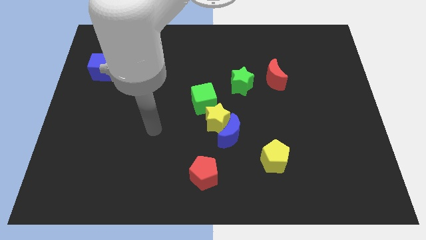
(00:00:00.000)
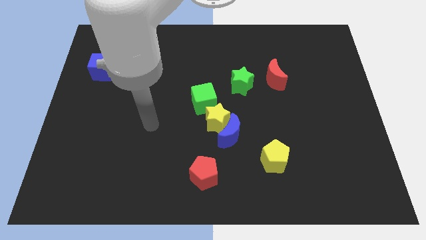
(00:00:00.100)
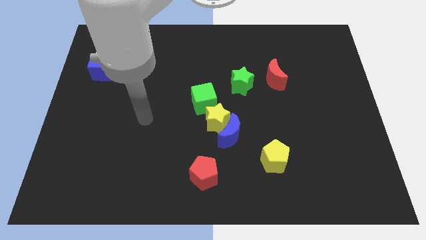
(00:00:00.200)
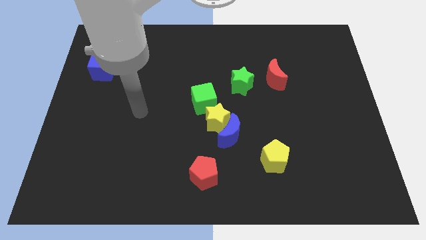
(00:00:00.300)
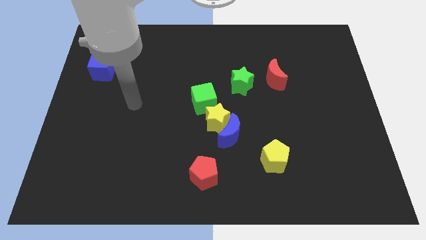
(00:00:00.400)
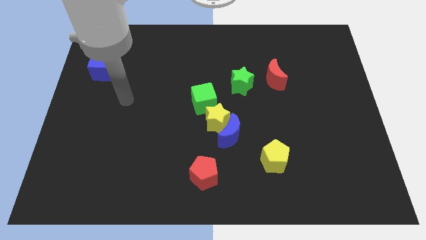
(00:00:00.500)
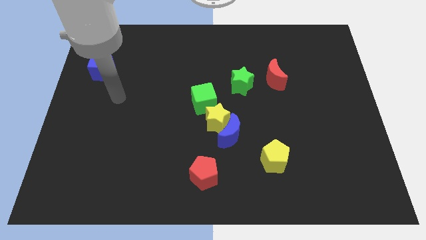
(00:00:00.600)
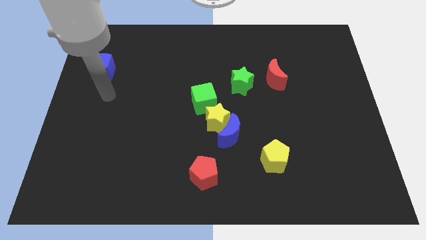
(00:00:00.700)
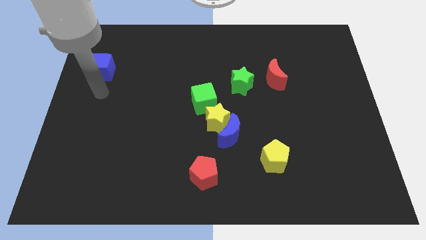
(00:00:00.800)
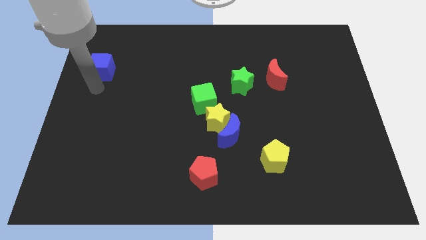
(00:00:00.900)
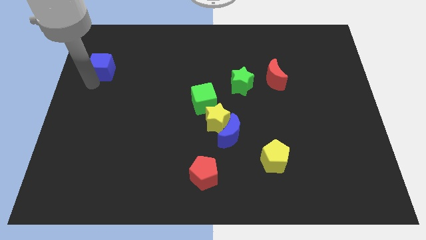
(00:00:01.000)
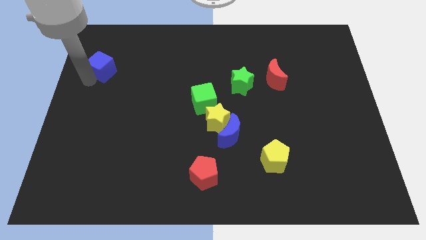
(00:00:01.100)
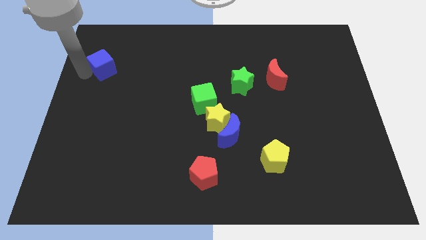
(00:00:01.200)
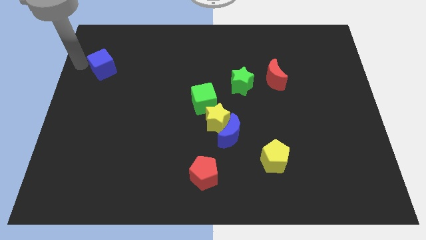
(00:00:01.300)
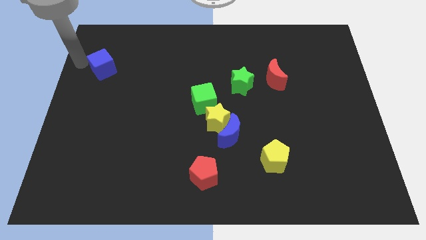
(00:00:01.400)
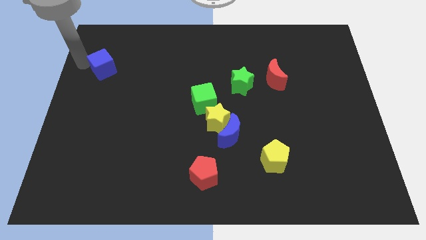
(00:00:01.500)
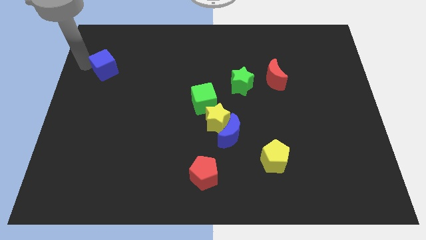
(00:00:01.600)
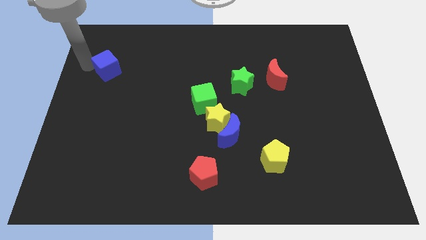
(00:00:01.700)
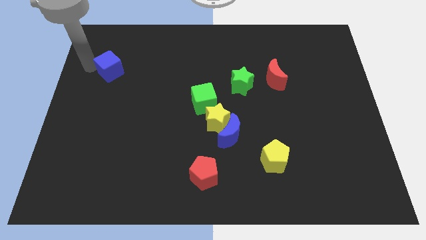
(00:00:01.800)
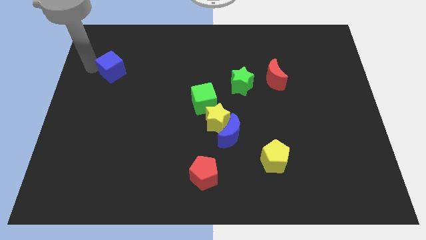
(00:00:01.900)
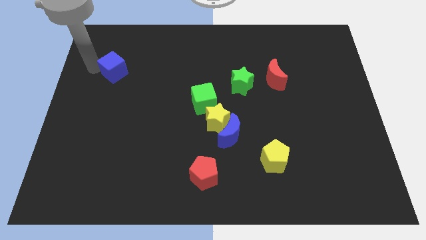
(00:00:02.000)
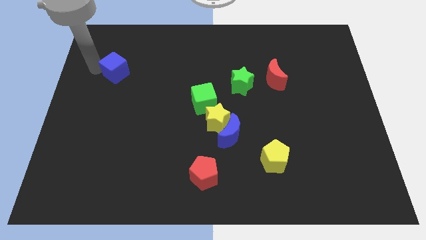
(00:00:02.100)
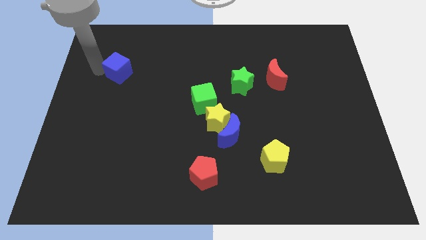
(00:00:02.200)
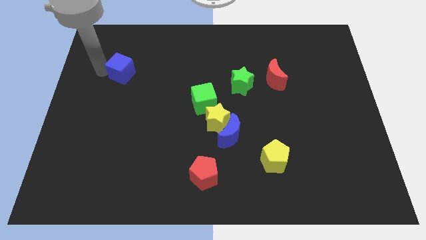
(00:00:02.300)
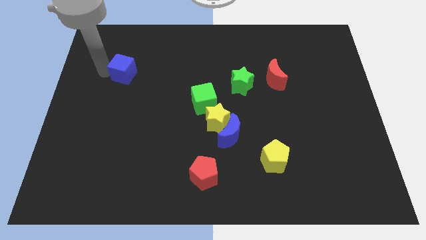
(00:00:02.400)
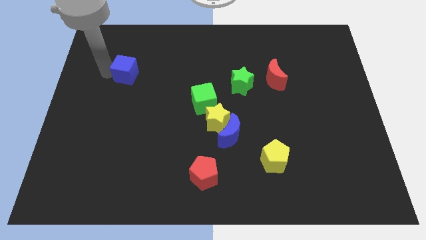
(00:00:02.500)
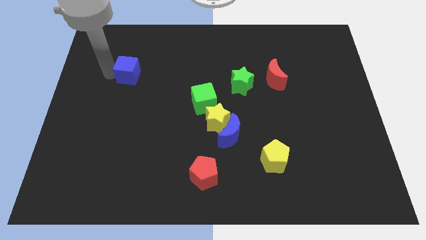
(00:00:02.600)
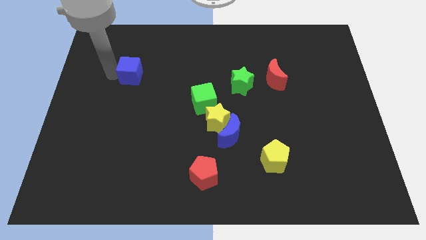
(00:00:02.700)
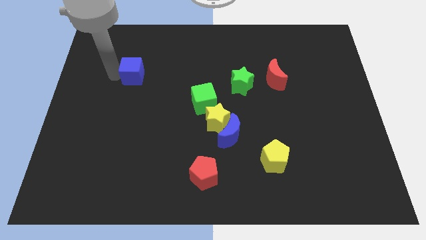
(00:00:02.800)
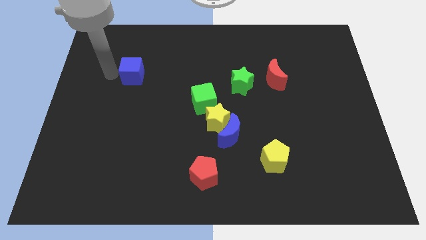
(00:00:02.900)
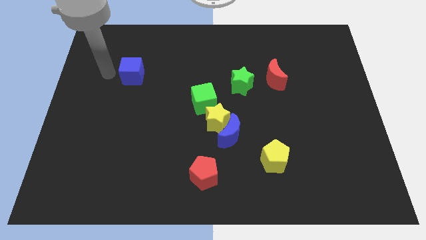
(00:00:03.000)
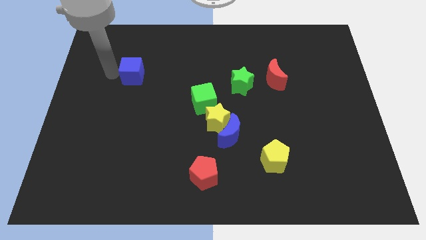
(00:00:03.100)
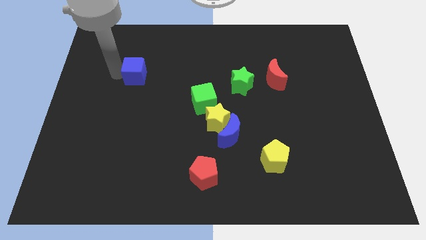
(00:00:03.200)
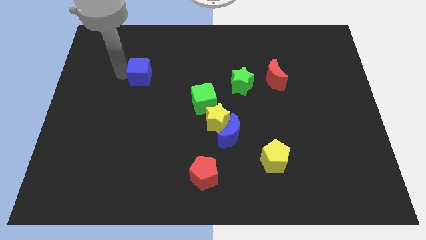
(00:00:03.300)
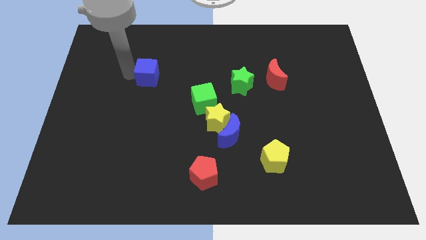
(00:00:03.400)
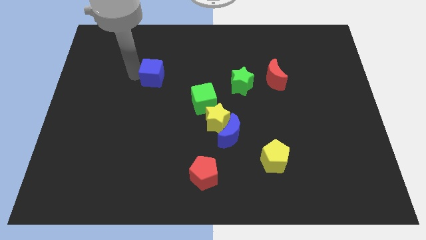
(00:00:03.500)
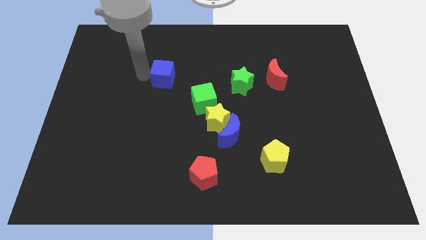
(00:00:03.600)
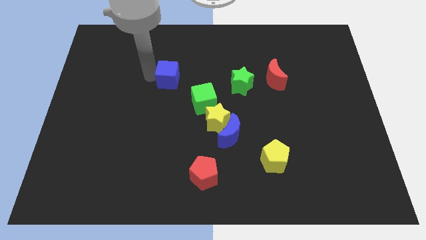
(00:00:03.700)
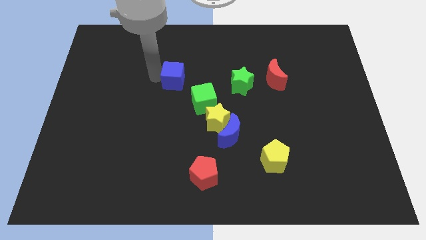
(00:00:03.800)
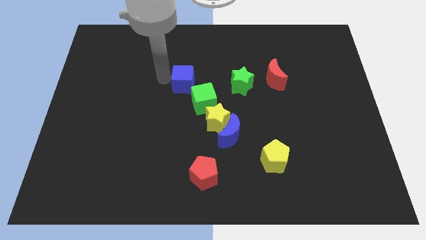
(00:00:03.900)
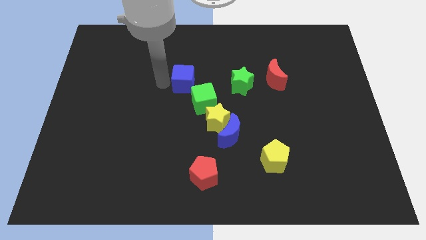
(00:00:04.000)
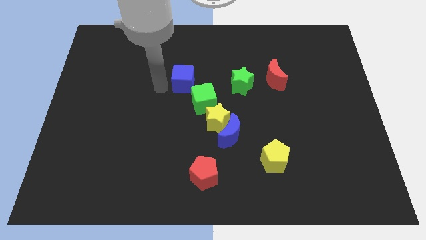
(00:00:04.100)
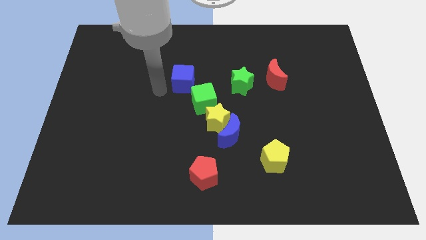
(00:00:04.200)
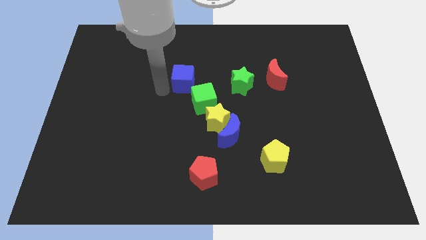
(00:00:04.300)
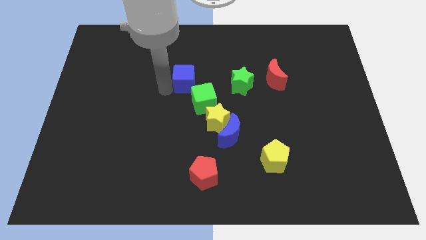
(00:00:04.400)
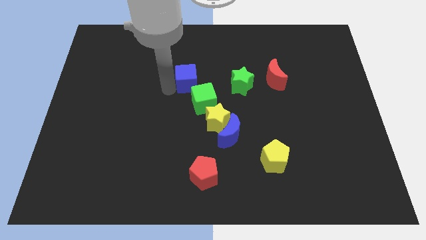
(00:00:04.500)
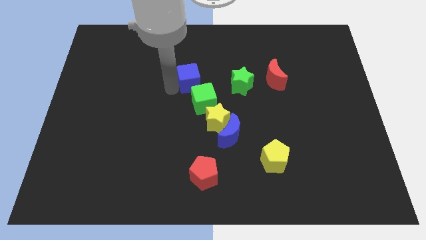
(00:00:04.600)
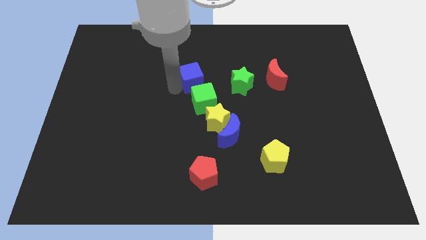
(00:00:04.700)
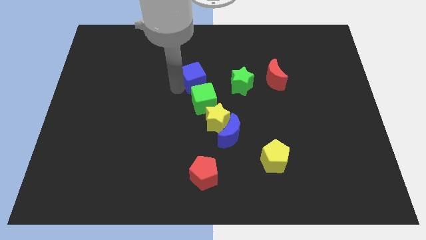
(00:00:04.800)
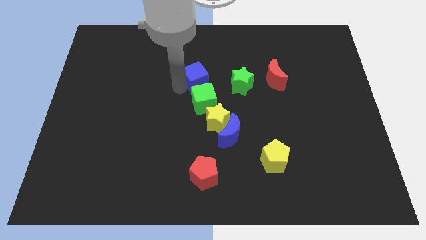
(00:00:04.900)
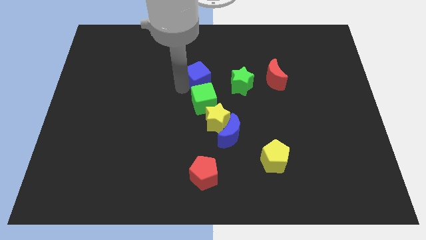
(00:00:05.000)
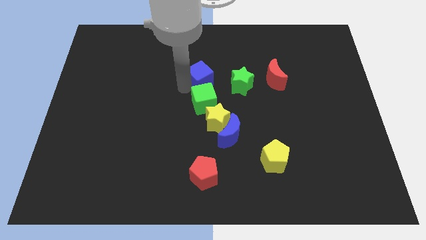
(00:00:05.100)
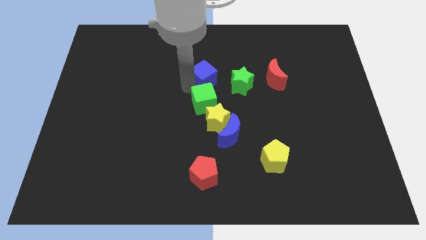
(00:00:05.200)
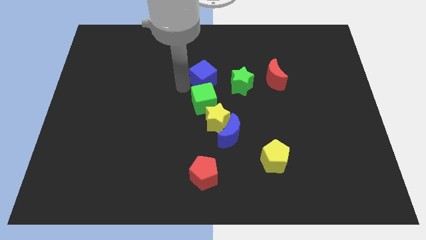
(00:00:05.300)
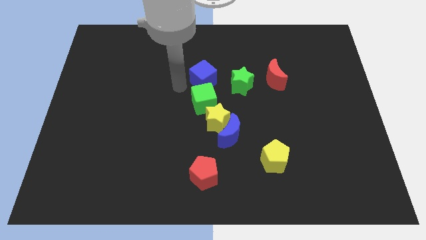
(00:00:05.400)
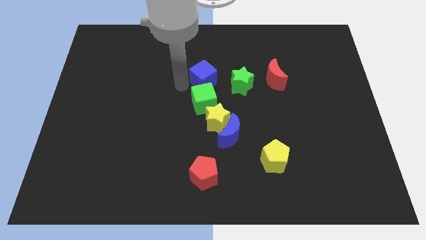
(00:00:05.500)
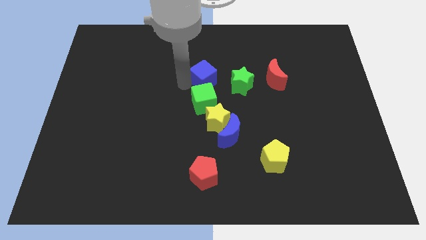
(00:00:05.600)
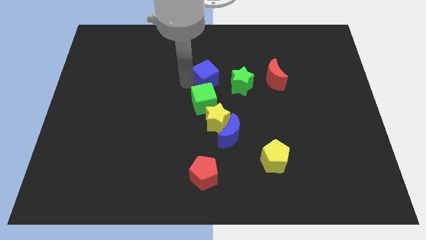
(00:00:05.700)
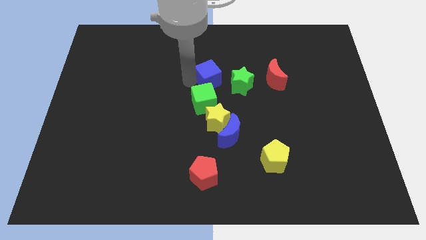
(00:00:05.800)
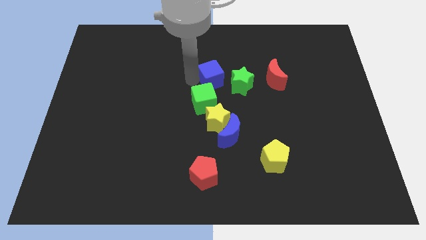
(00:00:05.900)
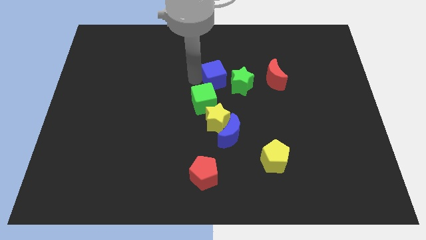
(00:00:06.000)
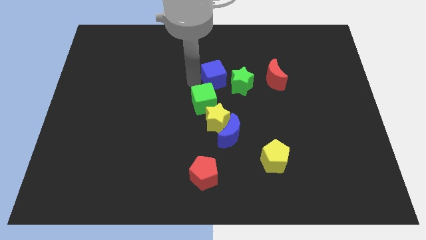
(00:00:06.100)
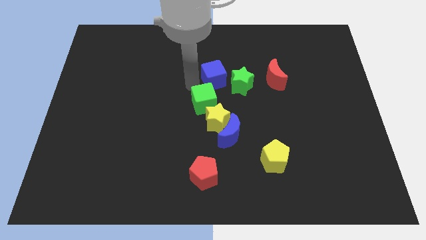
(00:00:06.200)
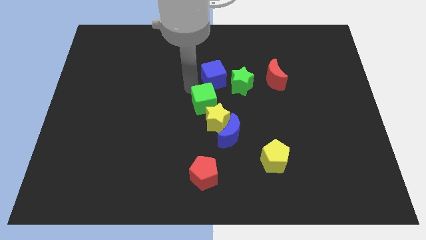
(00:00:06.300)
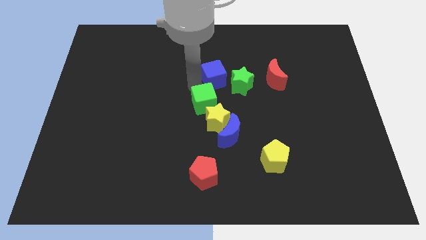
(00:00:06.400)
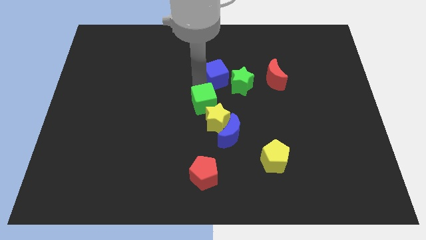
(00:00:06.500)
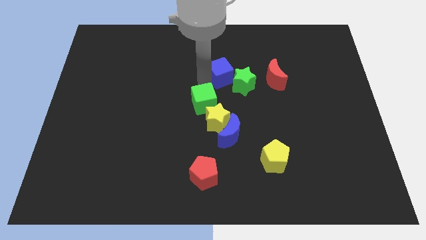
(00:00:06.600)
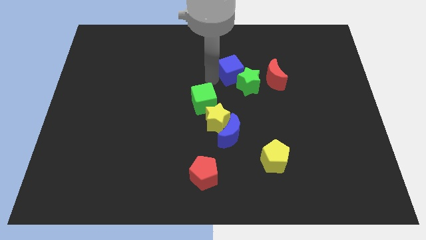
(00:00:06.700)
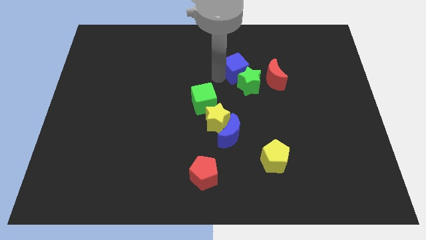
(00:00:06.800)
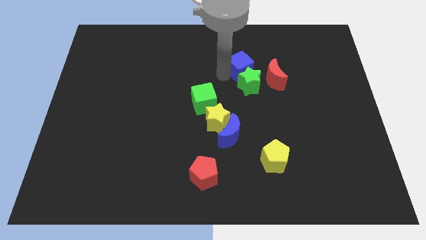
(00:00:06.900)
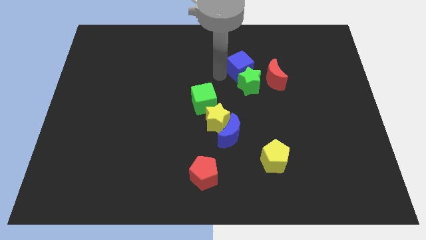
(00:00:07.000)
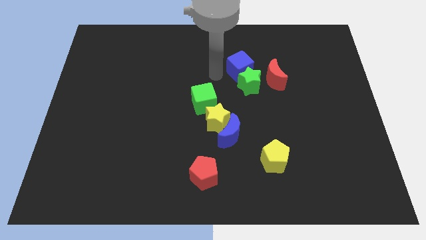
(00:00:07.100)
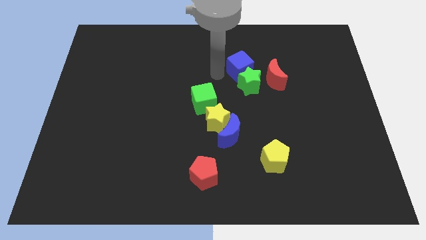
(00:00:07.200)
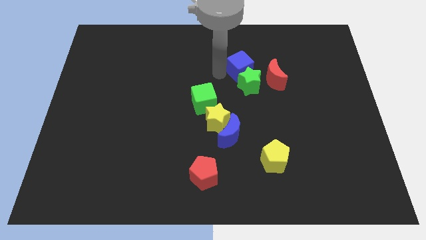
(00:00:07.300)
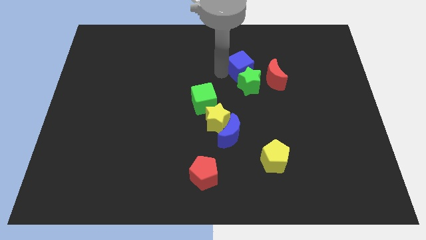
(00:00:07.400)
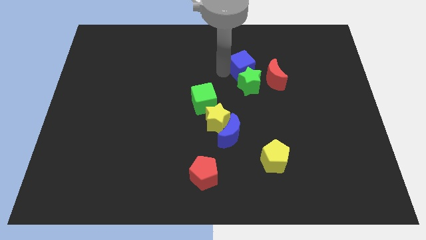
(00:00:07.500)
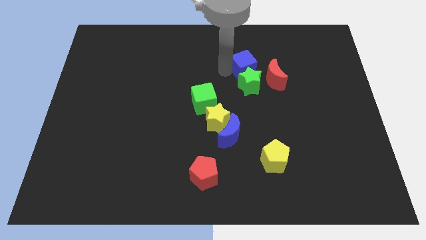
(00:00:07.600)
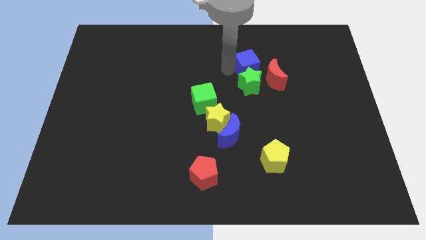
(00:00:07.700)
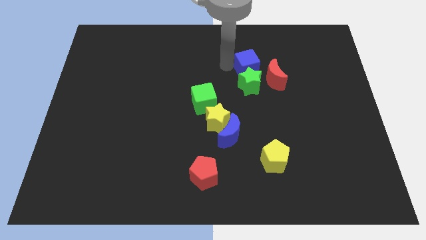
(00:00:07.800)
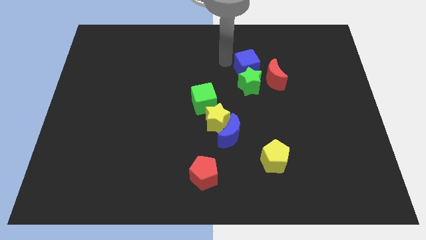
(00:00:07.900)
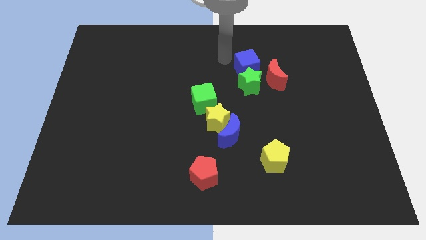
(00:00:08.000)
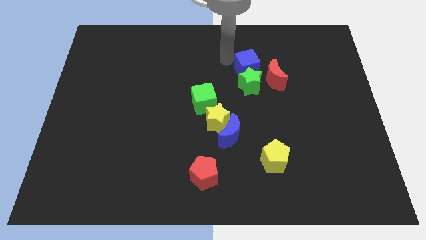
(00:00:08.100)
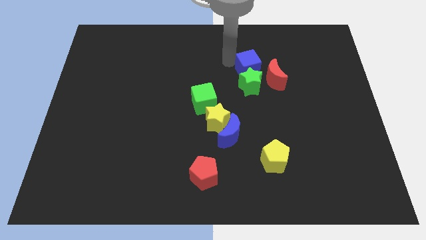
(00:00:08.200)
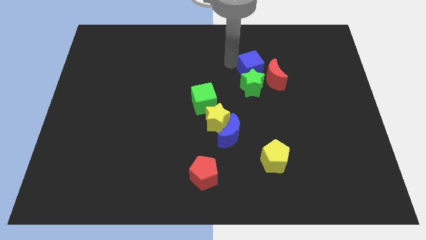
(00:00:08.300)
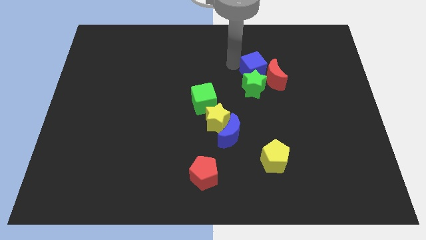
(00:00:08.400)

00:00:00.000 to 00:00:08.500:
push the blue cube next to the red moon
